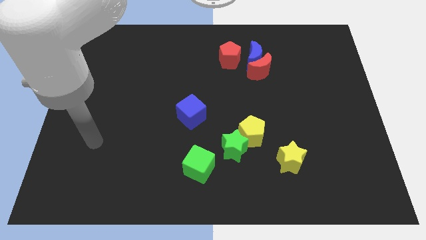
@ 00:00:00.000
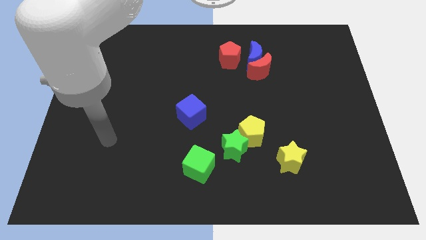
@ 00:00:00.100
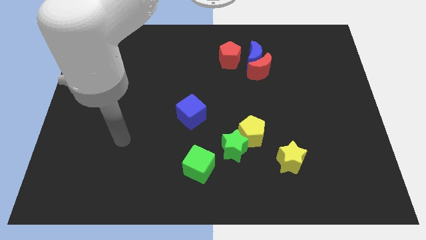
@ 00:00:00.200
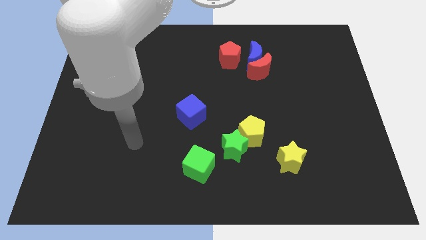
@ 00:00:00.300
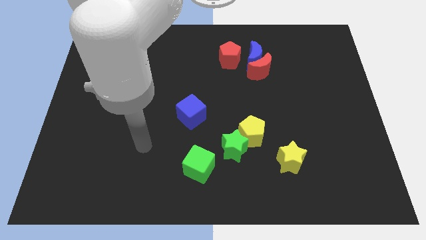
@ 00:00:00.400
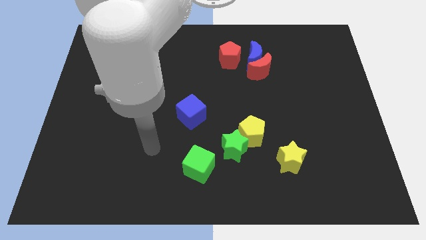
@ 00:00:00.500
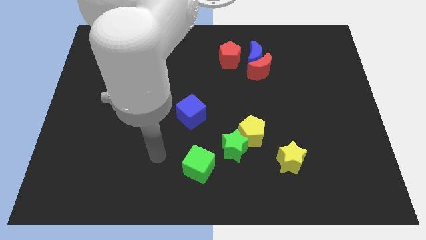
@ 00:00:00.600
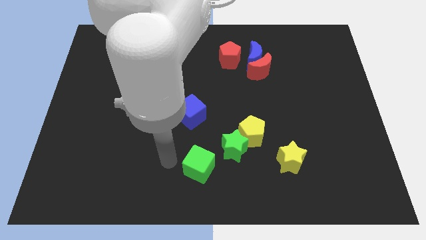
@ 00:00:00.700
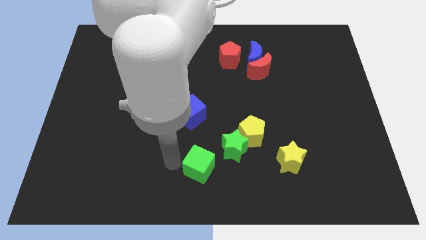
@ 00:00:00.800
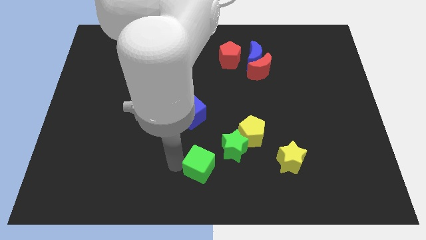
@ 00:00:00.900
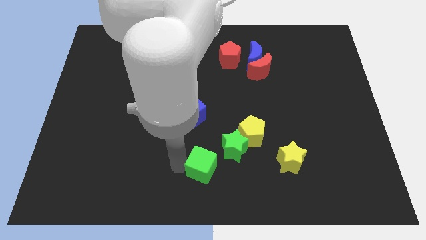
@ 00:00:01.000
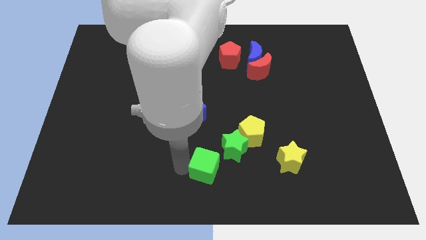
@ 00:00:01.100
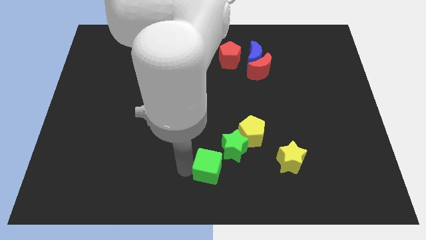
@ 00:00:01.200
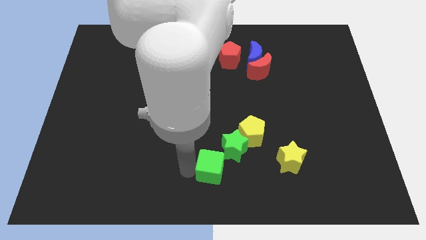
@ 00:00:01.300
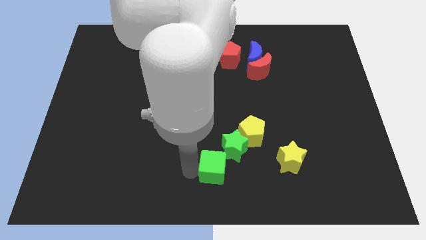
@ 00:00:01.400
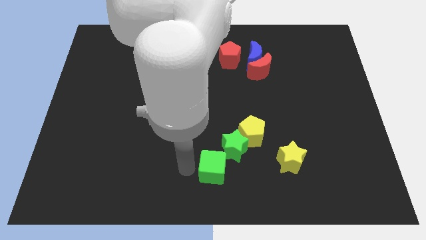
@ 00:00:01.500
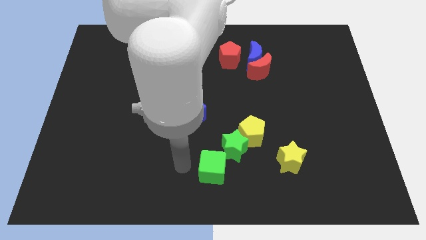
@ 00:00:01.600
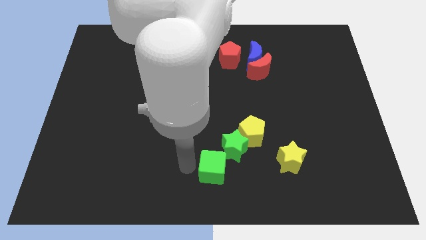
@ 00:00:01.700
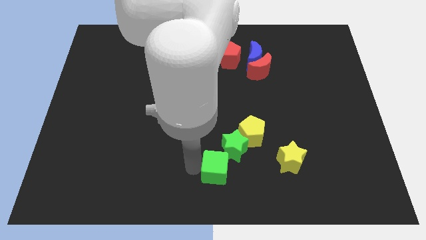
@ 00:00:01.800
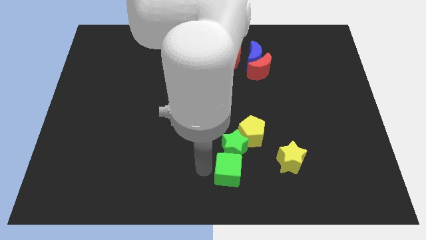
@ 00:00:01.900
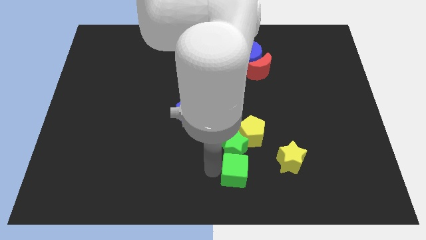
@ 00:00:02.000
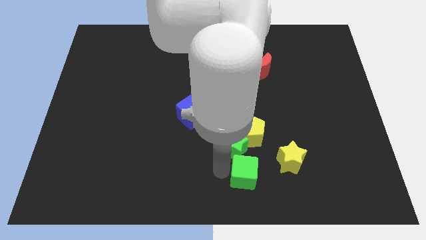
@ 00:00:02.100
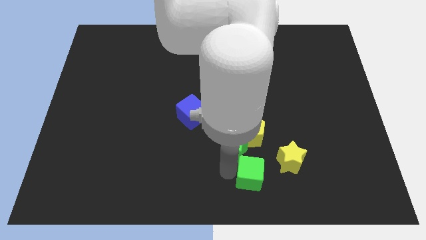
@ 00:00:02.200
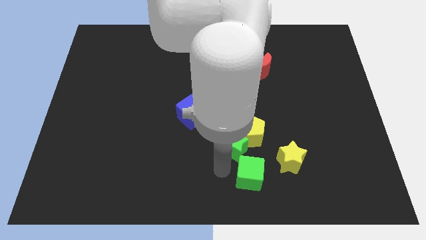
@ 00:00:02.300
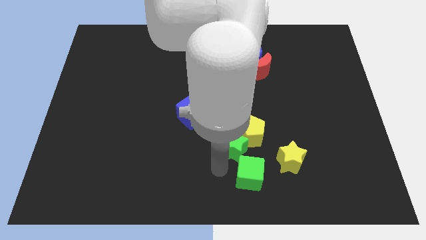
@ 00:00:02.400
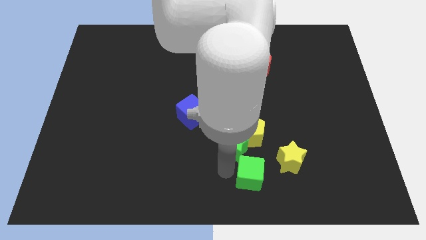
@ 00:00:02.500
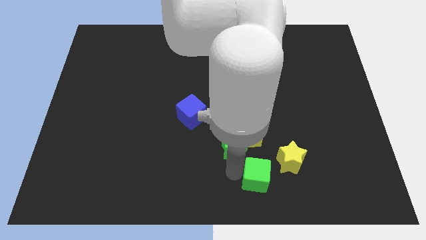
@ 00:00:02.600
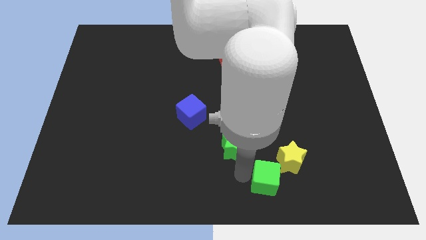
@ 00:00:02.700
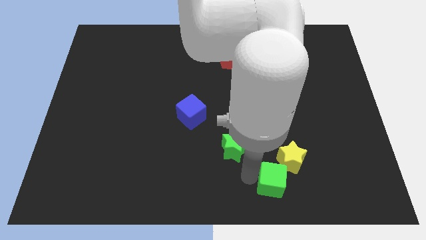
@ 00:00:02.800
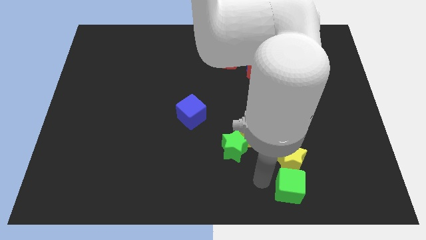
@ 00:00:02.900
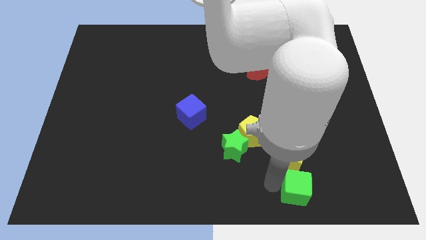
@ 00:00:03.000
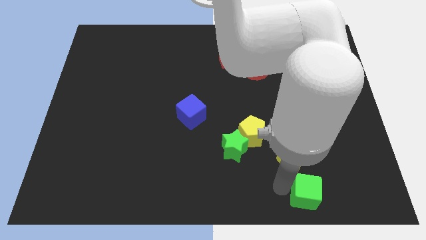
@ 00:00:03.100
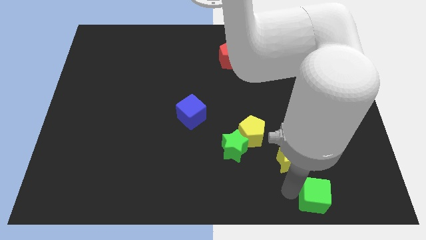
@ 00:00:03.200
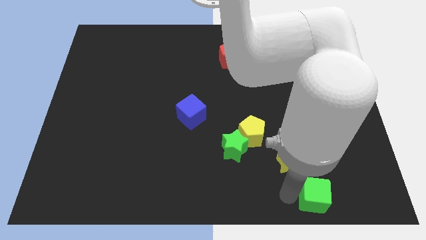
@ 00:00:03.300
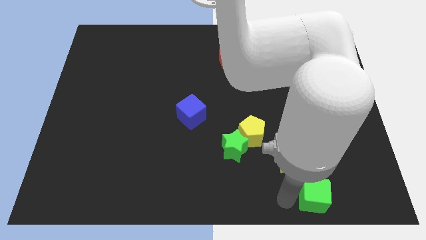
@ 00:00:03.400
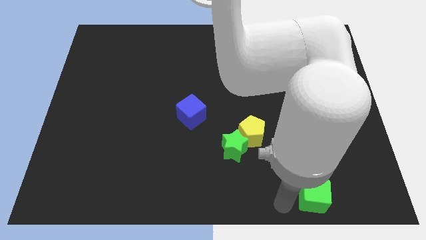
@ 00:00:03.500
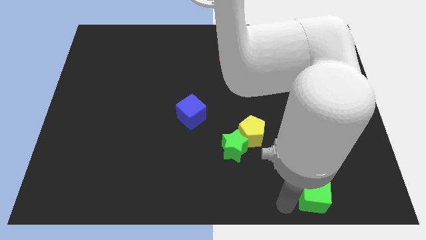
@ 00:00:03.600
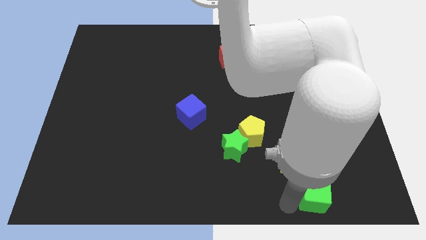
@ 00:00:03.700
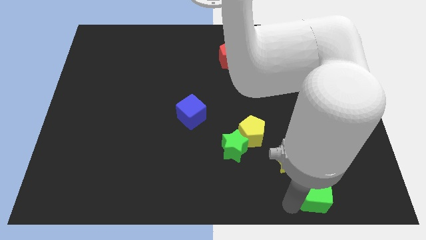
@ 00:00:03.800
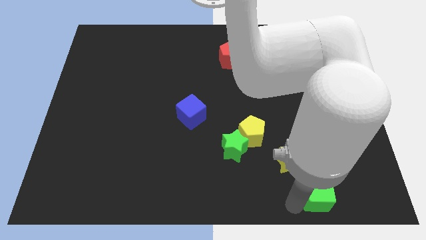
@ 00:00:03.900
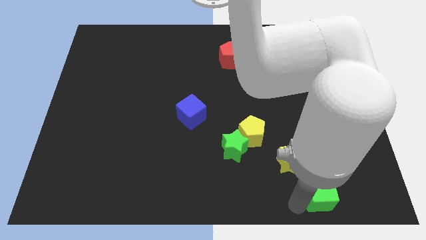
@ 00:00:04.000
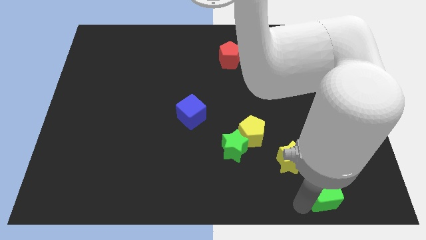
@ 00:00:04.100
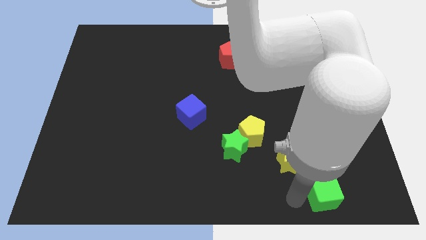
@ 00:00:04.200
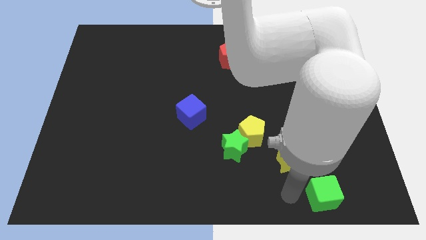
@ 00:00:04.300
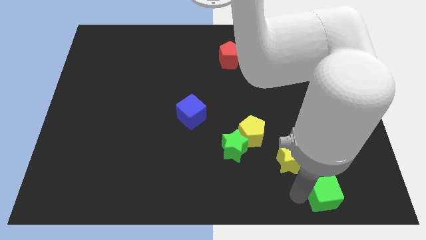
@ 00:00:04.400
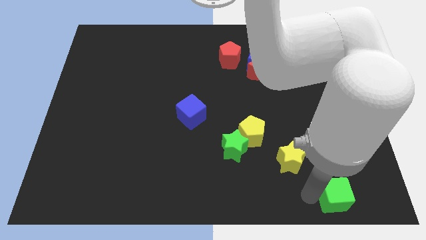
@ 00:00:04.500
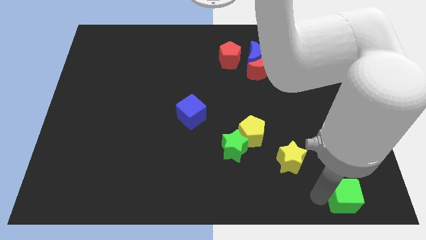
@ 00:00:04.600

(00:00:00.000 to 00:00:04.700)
put the green cube to the bottom right of the board

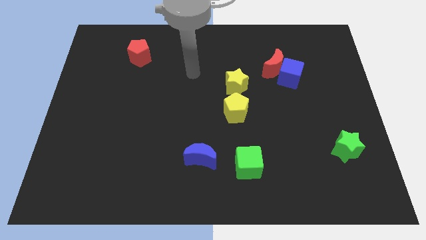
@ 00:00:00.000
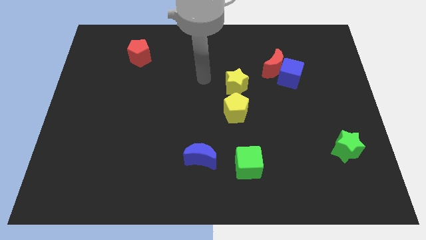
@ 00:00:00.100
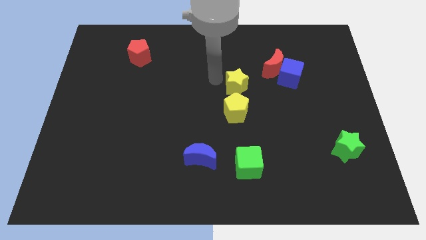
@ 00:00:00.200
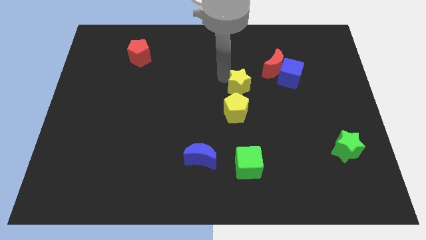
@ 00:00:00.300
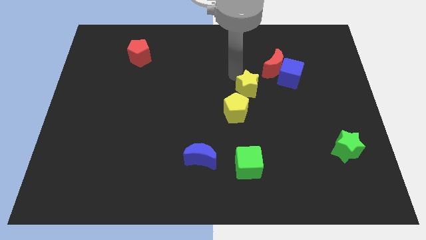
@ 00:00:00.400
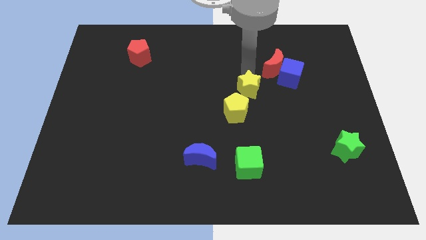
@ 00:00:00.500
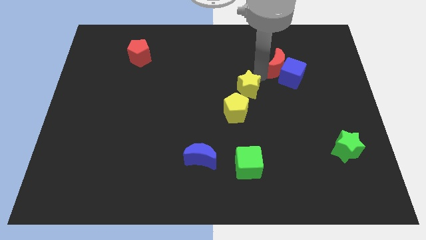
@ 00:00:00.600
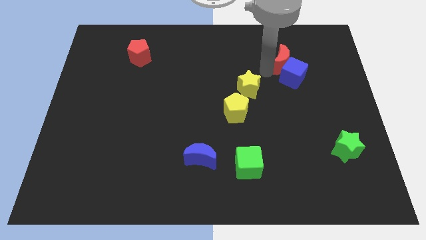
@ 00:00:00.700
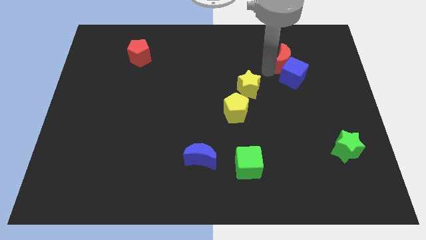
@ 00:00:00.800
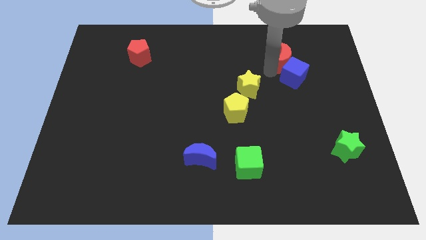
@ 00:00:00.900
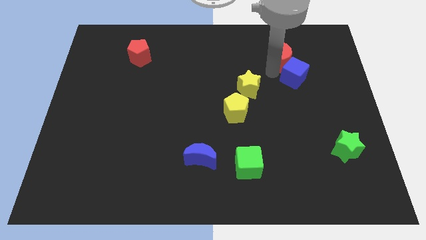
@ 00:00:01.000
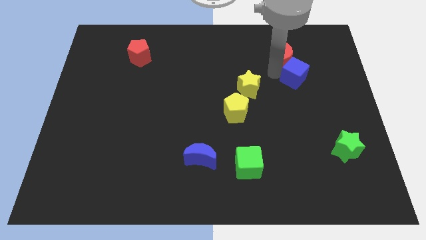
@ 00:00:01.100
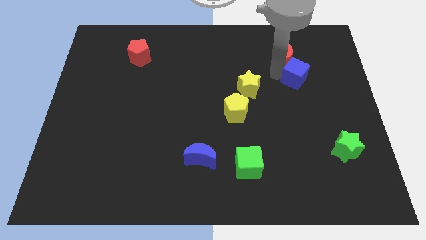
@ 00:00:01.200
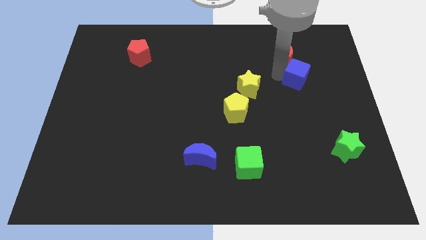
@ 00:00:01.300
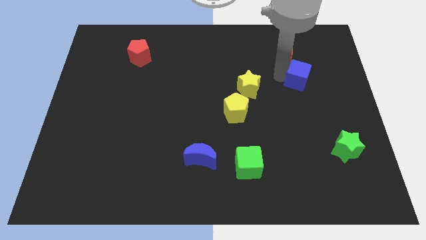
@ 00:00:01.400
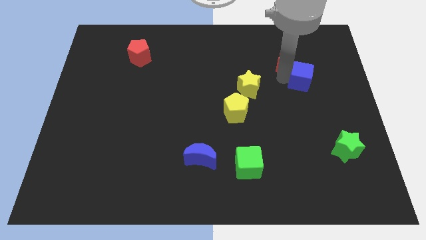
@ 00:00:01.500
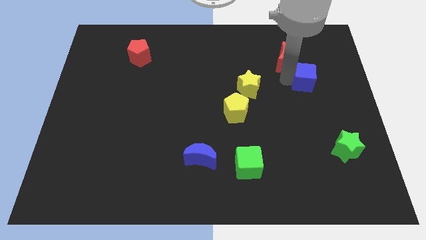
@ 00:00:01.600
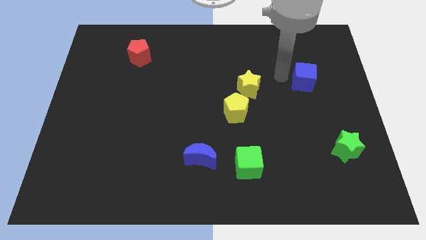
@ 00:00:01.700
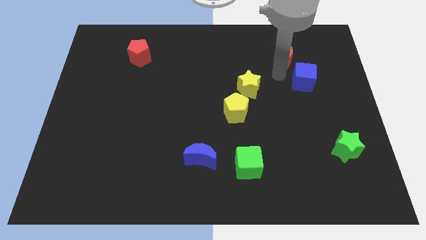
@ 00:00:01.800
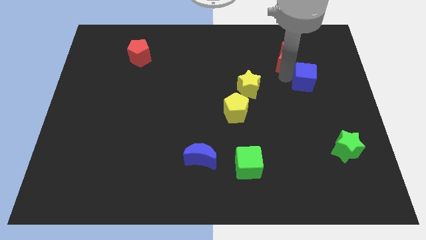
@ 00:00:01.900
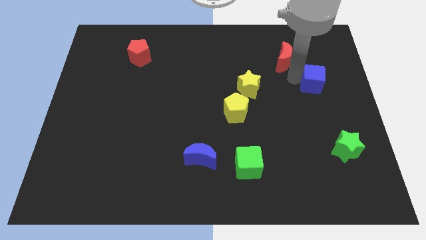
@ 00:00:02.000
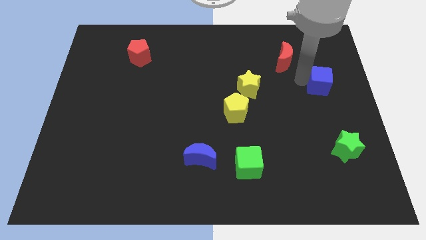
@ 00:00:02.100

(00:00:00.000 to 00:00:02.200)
put the blue cube to the right side of the board

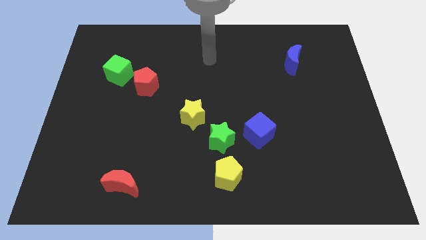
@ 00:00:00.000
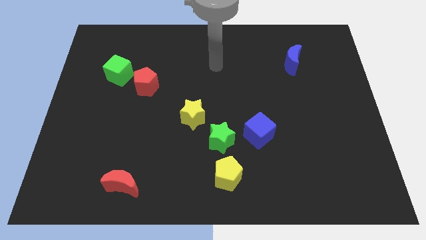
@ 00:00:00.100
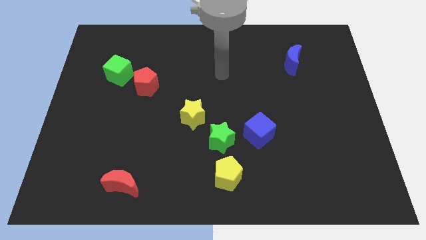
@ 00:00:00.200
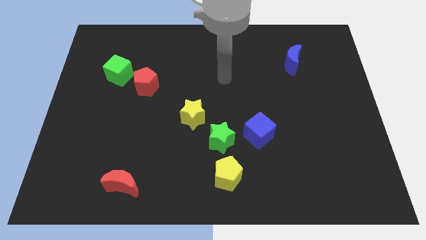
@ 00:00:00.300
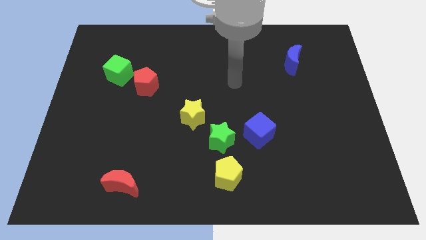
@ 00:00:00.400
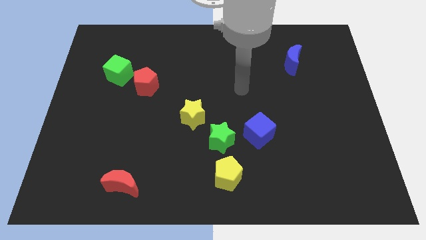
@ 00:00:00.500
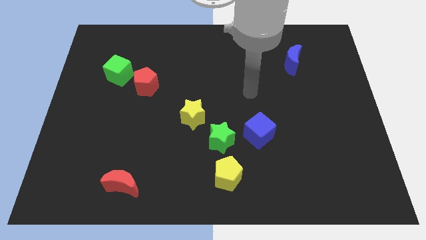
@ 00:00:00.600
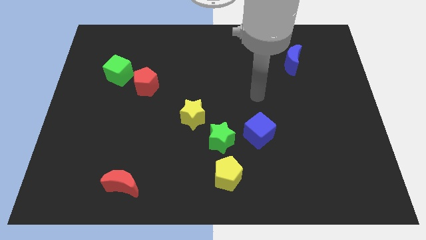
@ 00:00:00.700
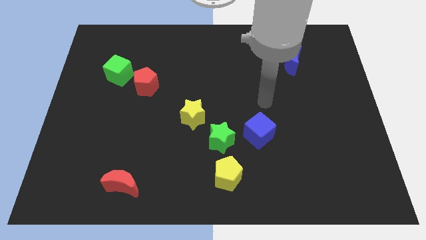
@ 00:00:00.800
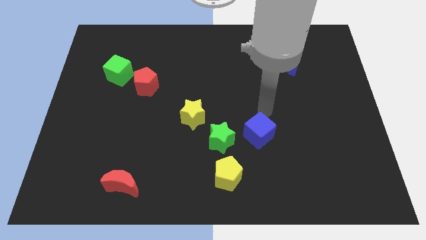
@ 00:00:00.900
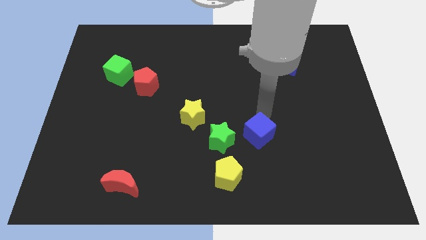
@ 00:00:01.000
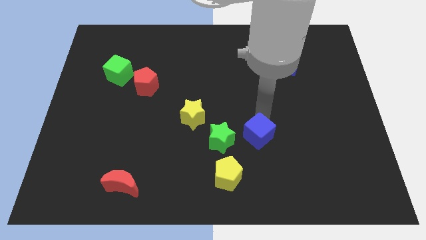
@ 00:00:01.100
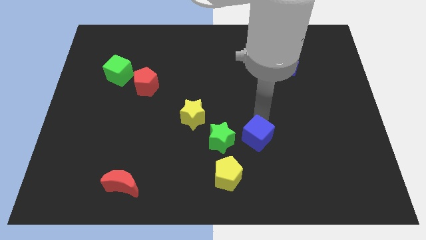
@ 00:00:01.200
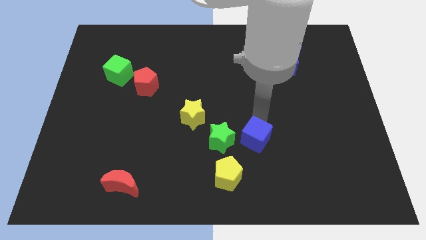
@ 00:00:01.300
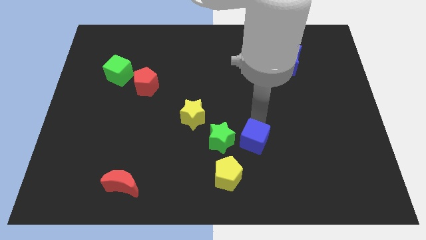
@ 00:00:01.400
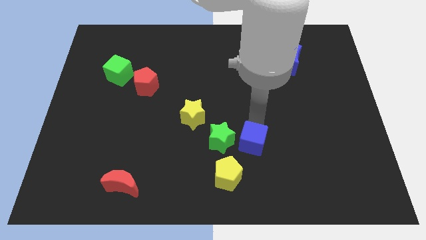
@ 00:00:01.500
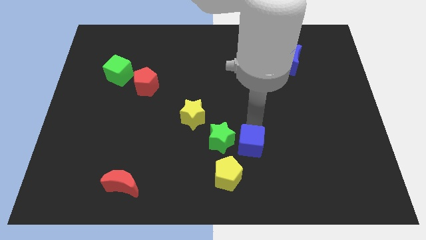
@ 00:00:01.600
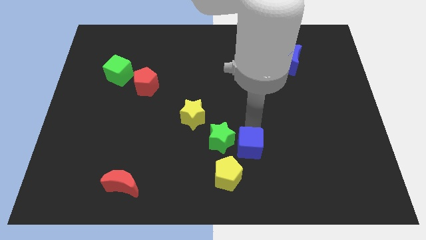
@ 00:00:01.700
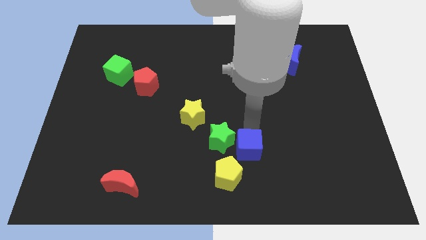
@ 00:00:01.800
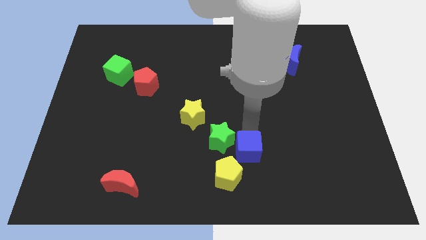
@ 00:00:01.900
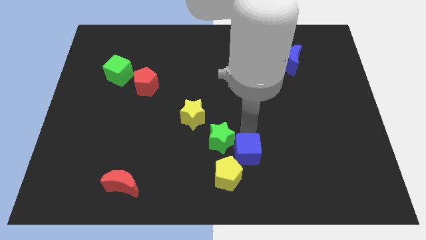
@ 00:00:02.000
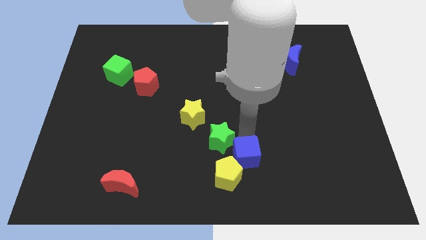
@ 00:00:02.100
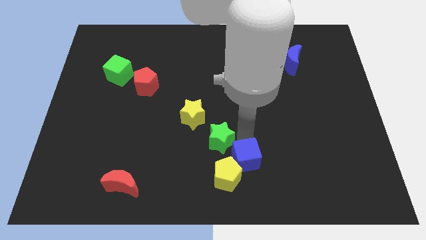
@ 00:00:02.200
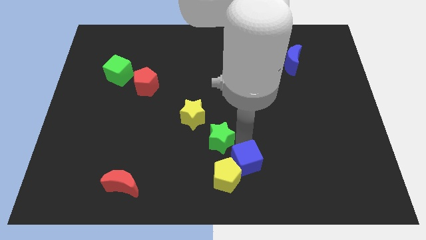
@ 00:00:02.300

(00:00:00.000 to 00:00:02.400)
slide the blue cube to the bottom side
